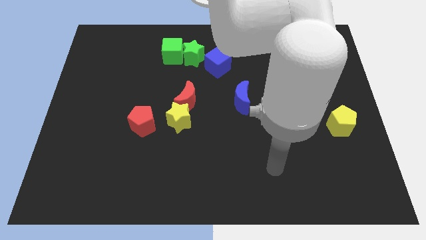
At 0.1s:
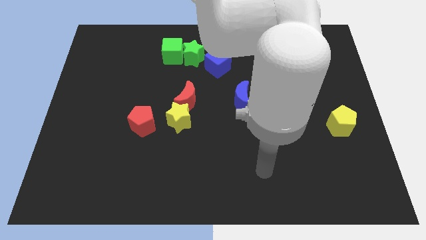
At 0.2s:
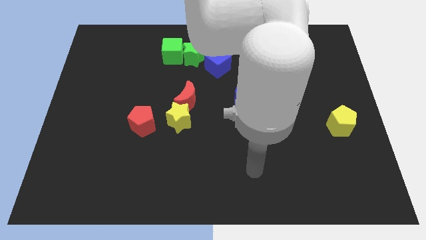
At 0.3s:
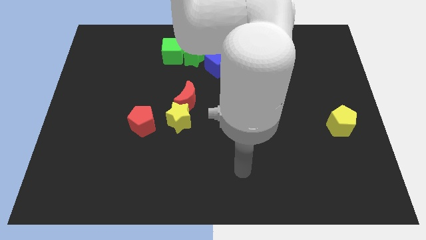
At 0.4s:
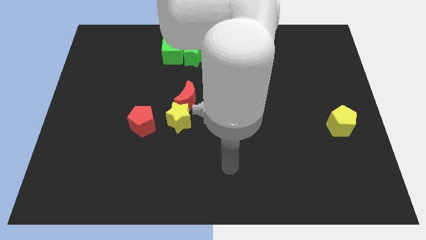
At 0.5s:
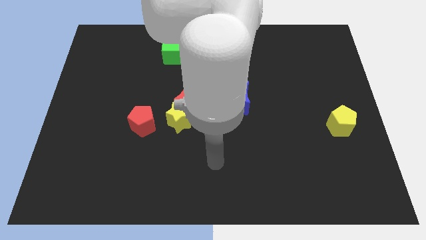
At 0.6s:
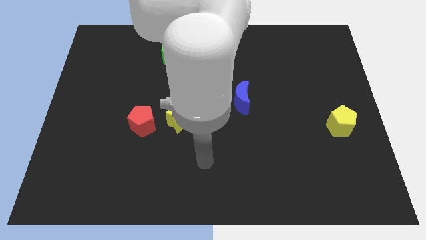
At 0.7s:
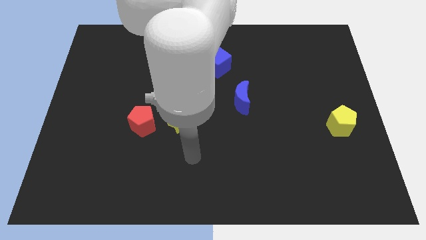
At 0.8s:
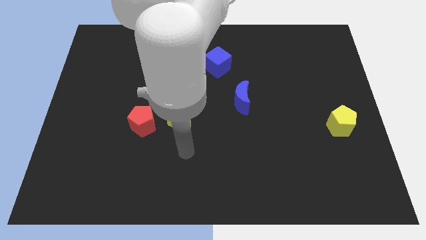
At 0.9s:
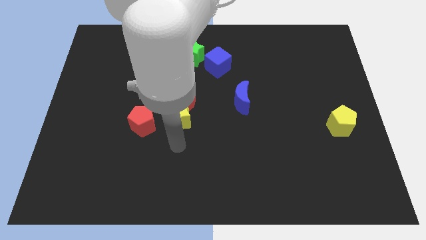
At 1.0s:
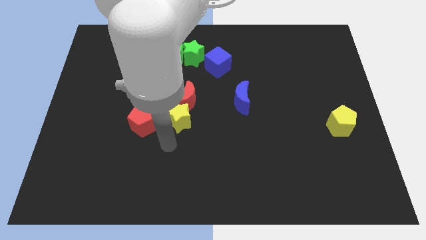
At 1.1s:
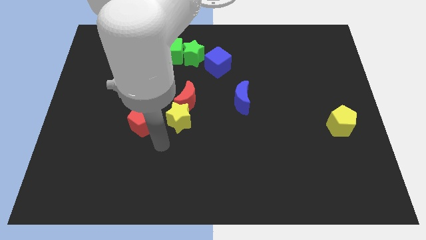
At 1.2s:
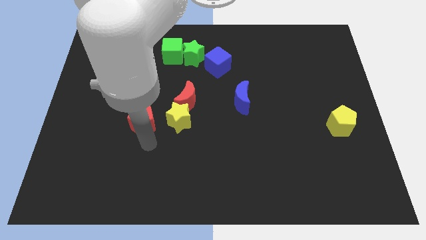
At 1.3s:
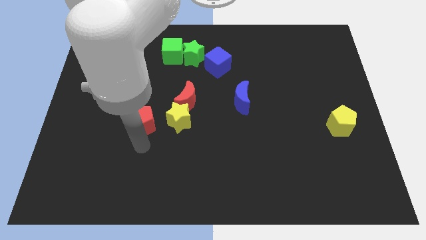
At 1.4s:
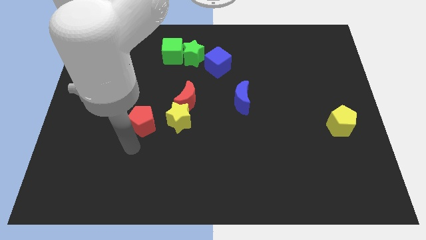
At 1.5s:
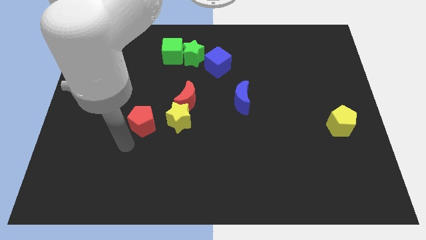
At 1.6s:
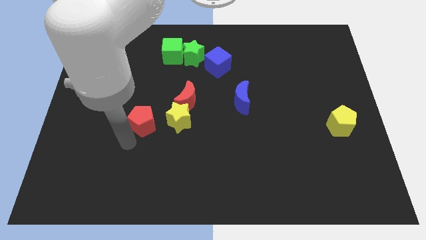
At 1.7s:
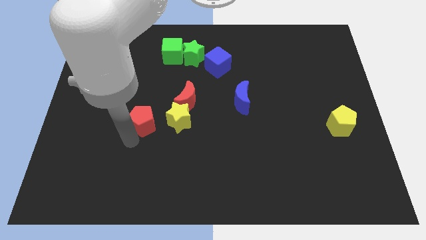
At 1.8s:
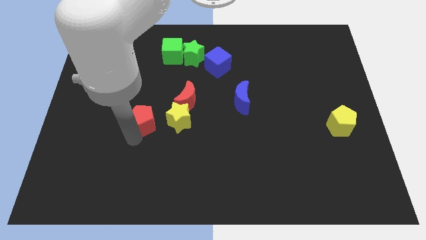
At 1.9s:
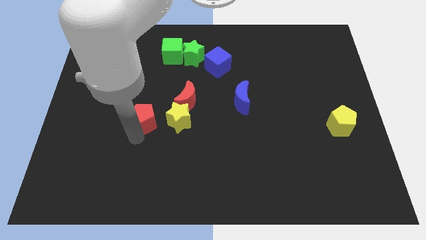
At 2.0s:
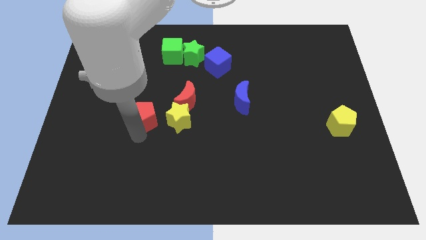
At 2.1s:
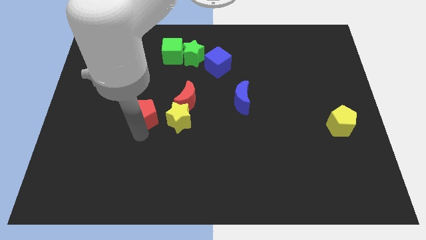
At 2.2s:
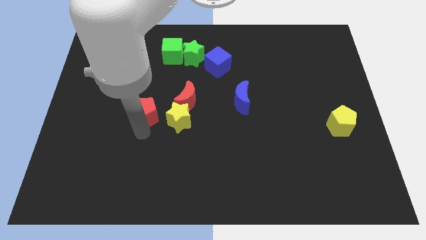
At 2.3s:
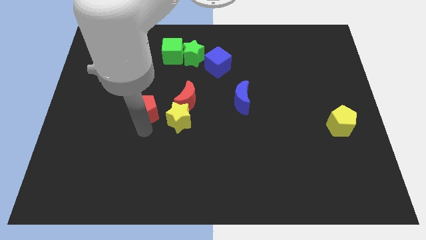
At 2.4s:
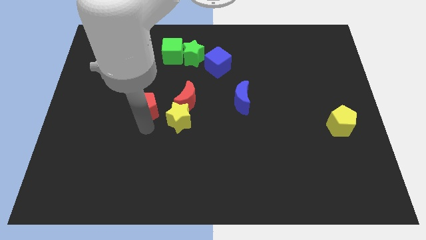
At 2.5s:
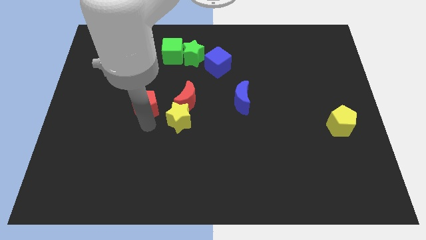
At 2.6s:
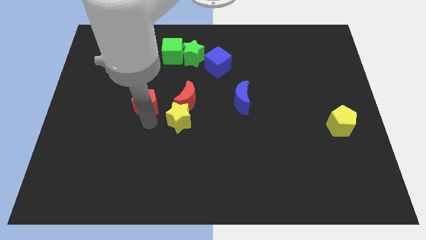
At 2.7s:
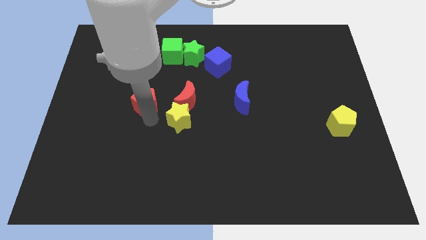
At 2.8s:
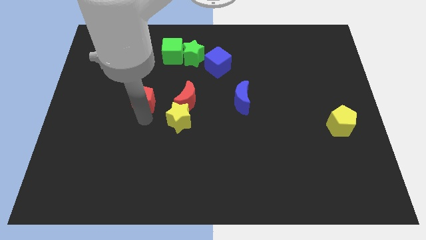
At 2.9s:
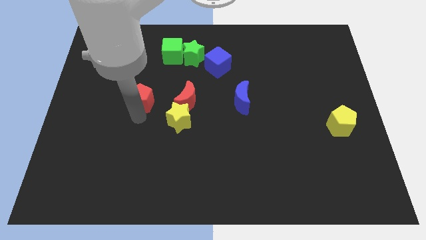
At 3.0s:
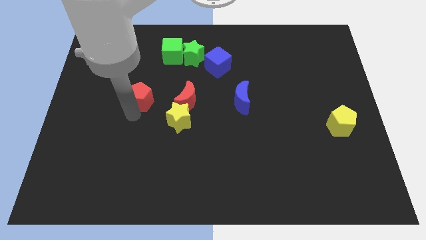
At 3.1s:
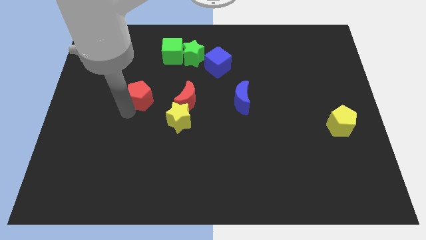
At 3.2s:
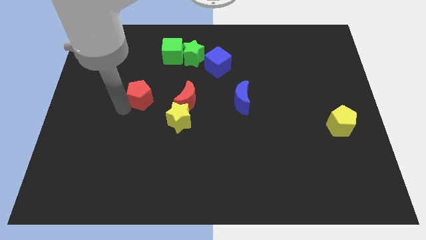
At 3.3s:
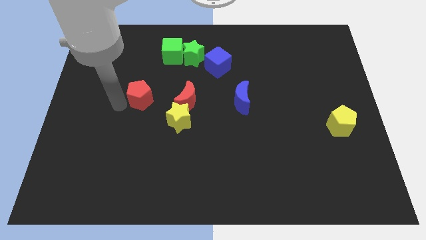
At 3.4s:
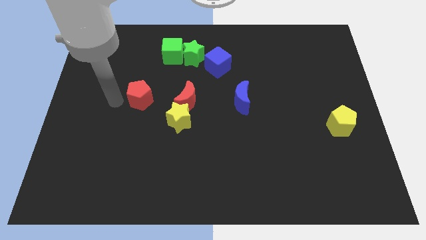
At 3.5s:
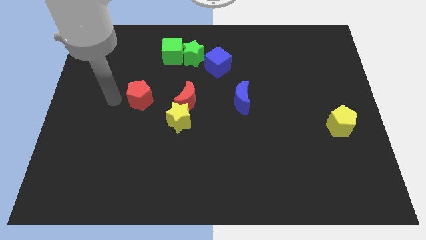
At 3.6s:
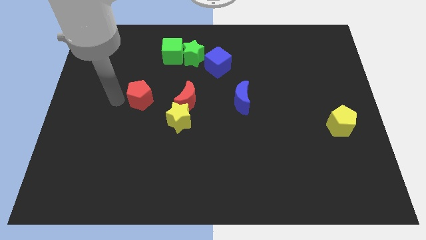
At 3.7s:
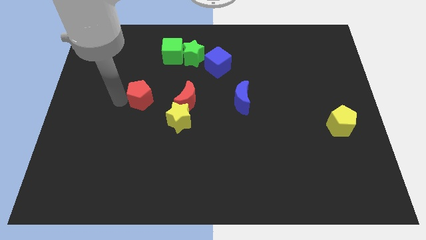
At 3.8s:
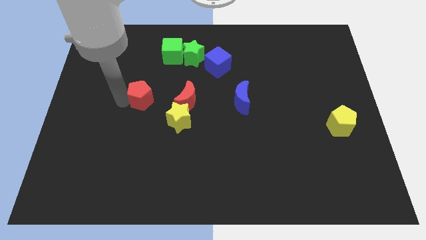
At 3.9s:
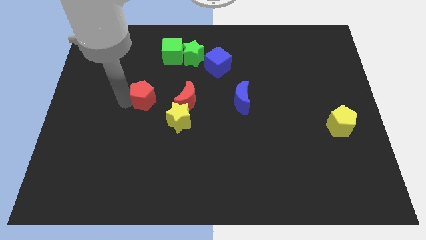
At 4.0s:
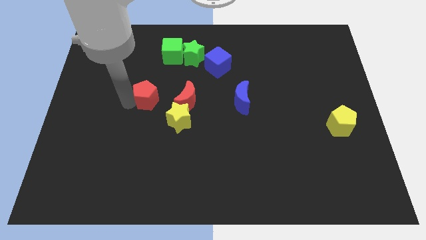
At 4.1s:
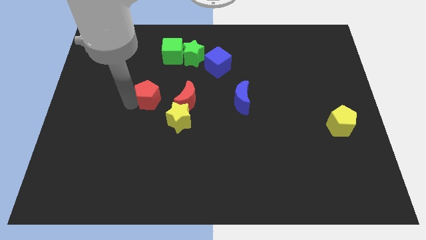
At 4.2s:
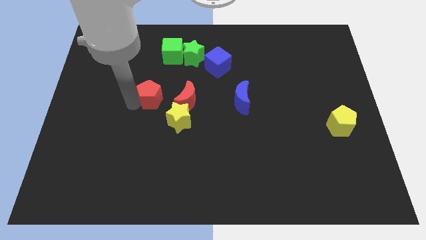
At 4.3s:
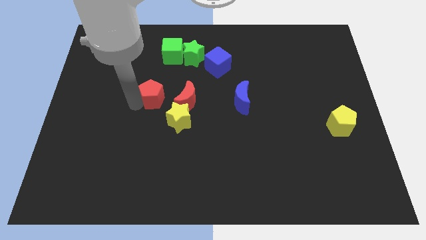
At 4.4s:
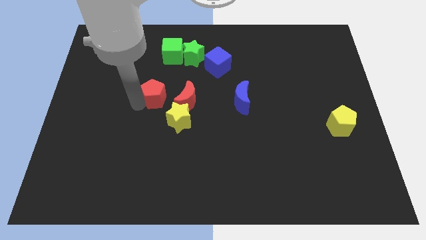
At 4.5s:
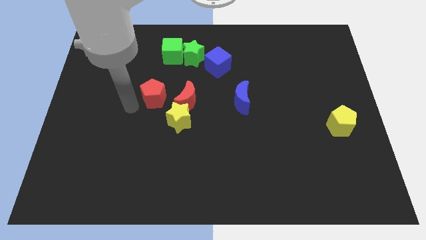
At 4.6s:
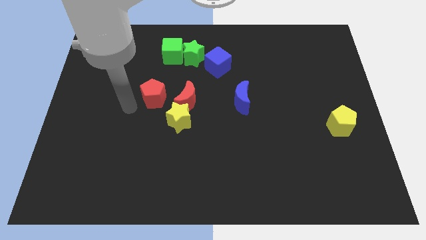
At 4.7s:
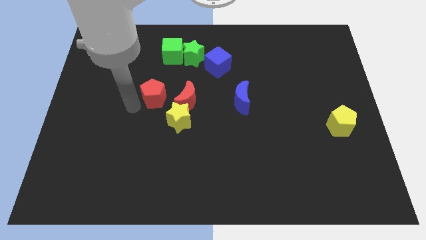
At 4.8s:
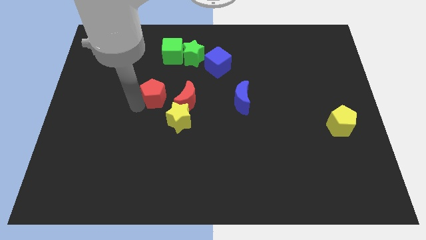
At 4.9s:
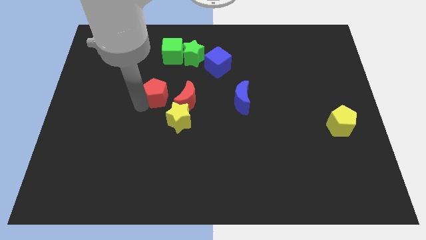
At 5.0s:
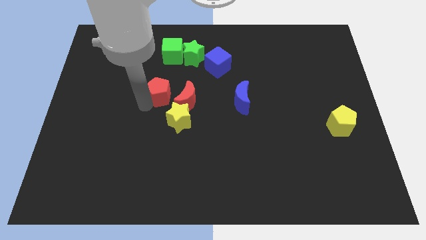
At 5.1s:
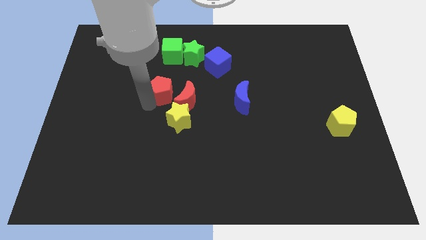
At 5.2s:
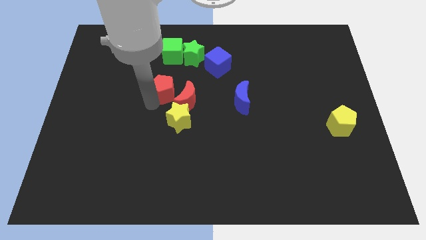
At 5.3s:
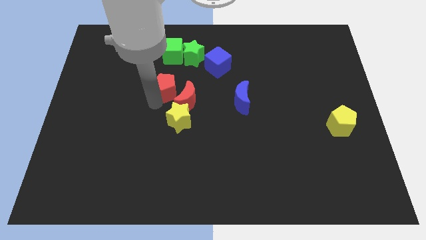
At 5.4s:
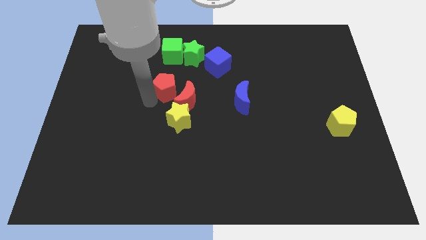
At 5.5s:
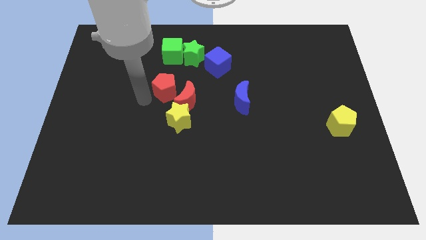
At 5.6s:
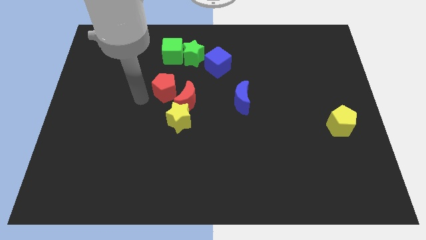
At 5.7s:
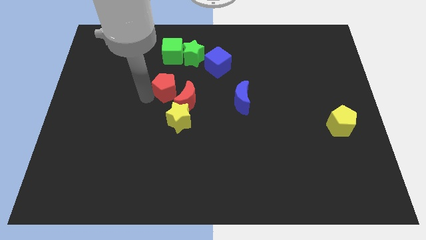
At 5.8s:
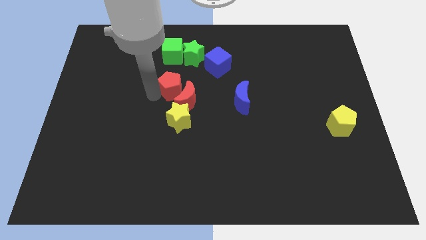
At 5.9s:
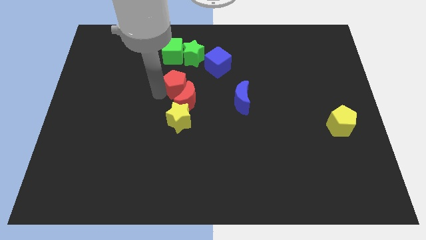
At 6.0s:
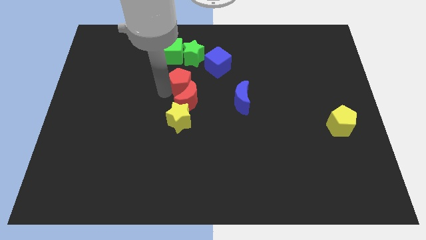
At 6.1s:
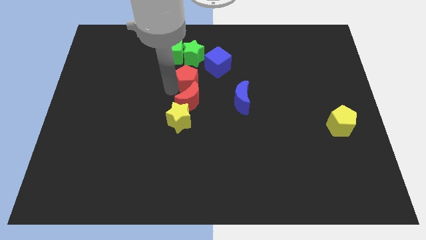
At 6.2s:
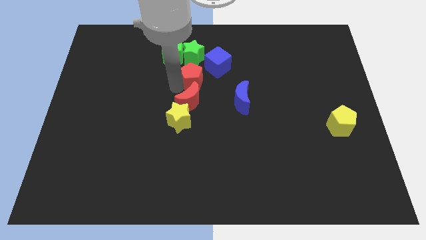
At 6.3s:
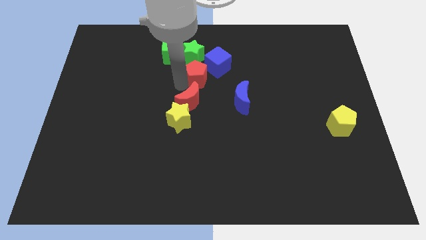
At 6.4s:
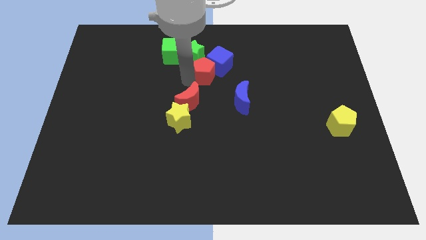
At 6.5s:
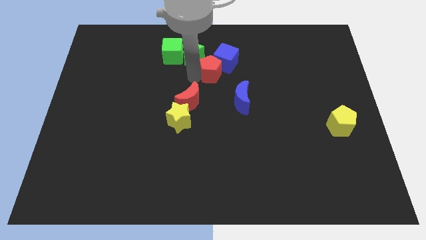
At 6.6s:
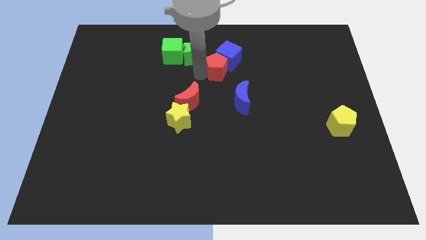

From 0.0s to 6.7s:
put the red pentagon right of the green star

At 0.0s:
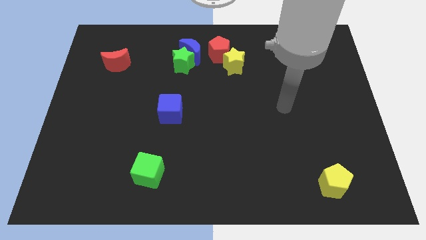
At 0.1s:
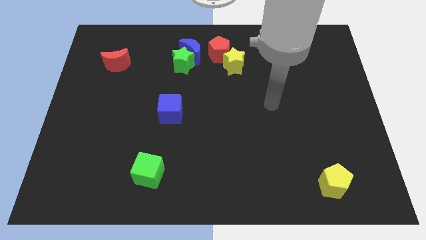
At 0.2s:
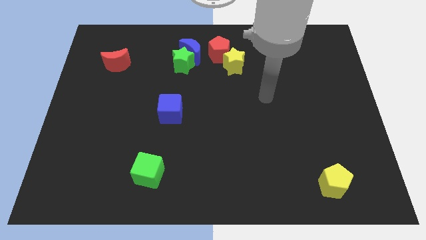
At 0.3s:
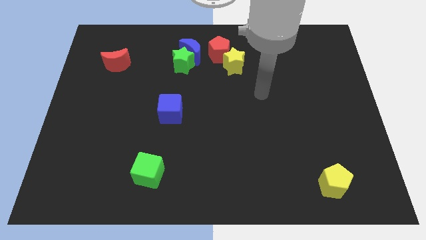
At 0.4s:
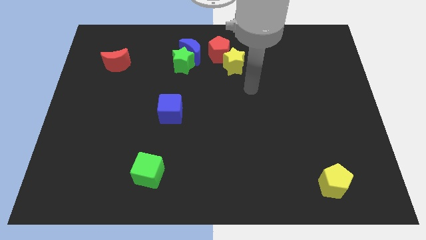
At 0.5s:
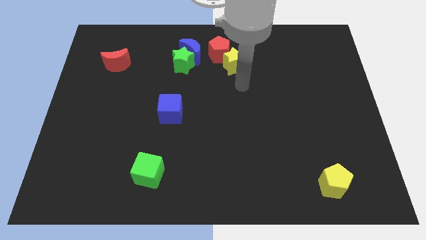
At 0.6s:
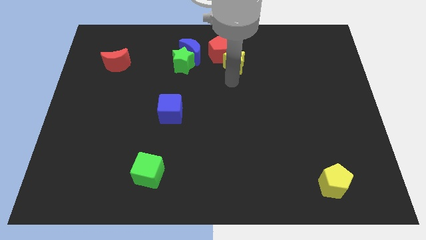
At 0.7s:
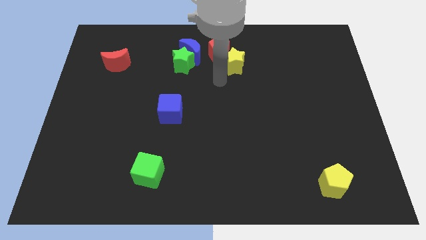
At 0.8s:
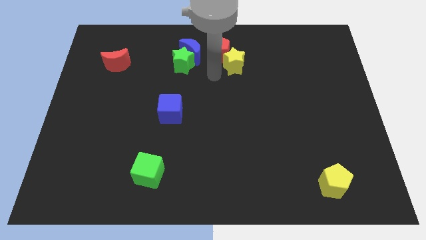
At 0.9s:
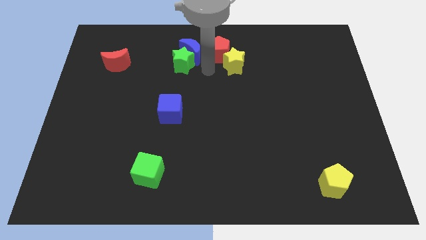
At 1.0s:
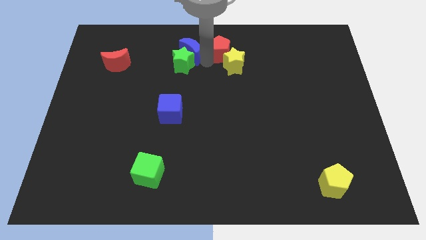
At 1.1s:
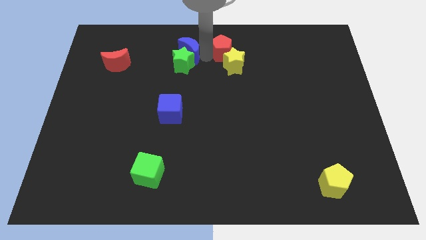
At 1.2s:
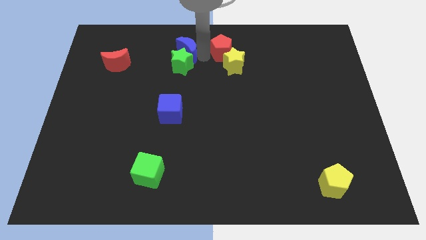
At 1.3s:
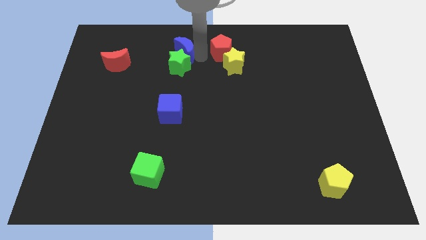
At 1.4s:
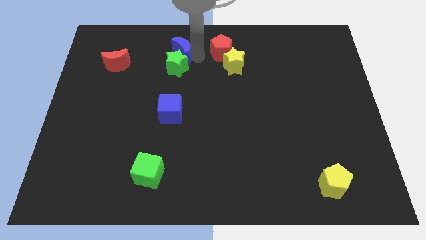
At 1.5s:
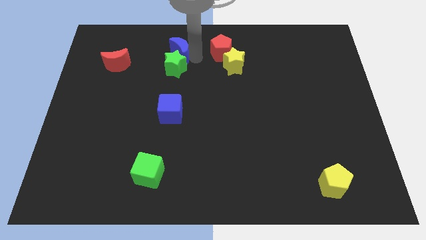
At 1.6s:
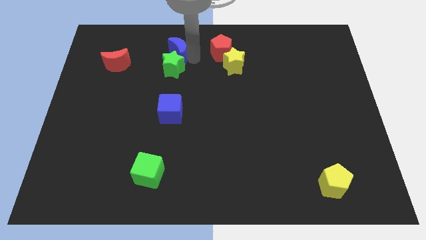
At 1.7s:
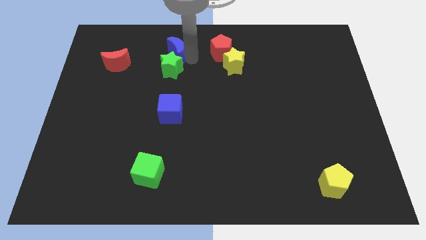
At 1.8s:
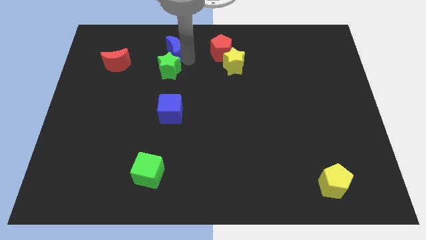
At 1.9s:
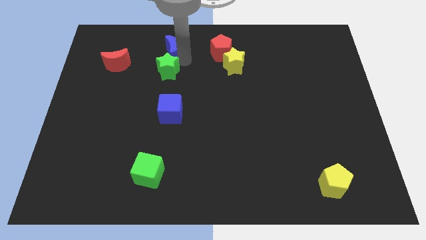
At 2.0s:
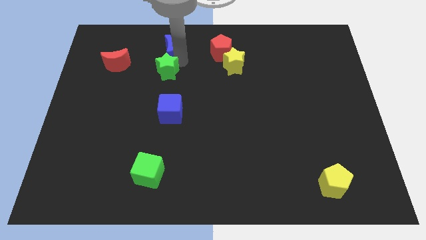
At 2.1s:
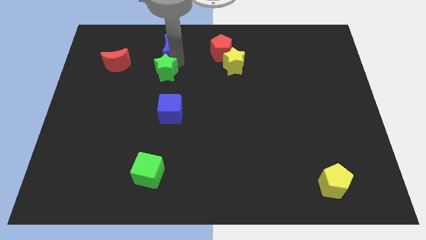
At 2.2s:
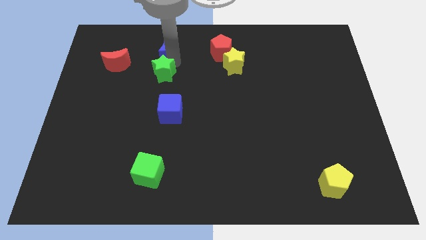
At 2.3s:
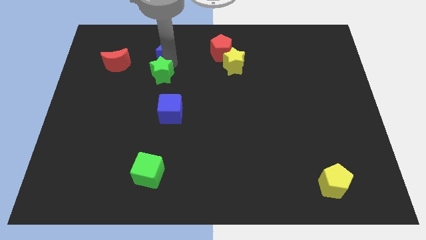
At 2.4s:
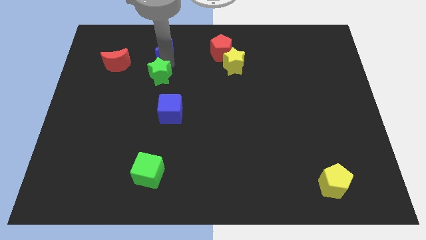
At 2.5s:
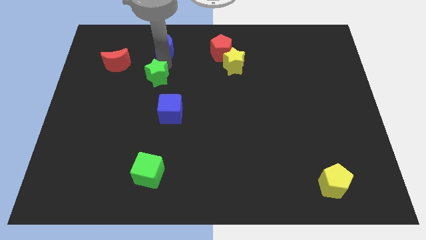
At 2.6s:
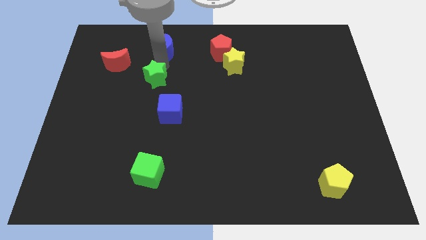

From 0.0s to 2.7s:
move the green star to the bottom right side of the red moon
